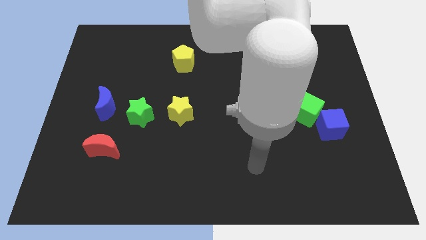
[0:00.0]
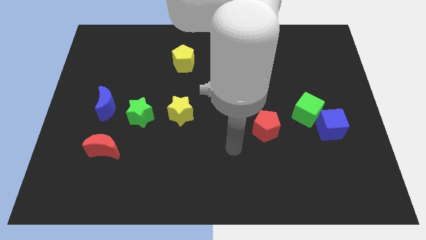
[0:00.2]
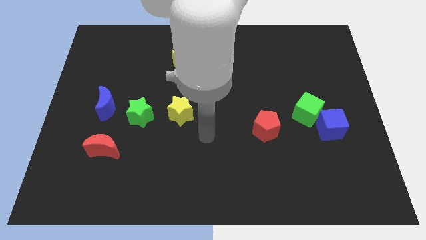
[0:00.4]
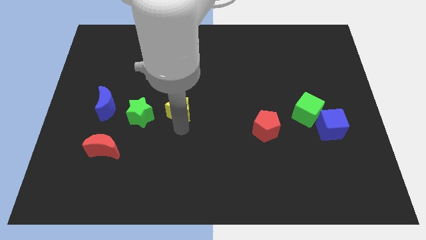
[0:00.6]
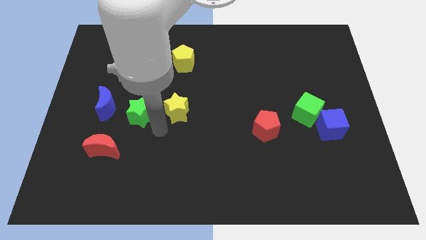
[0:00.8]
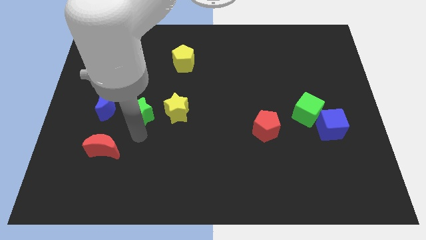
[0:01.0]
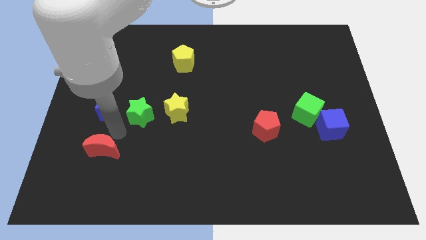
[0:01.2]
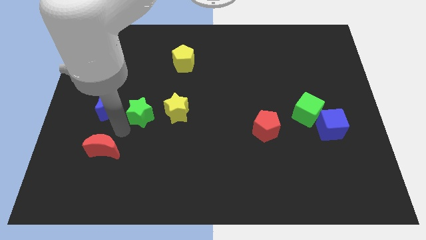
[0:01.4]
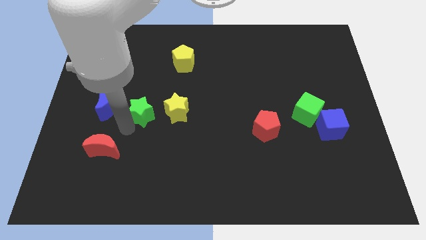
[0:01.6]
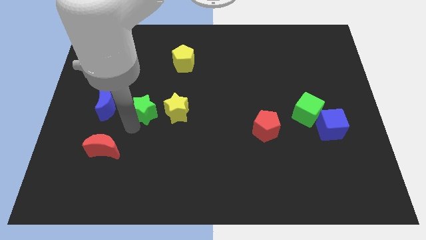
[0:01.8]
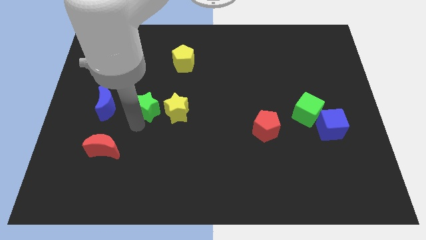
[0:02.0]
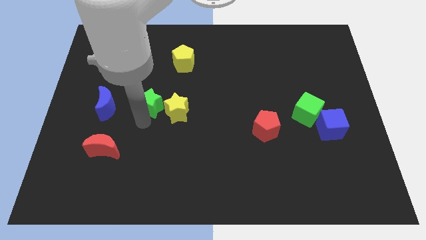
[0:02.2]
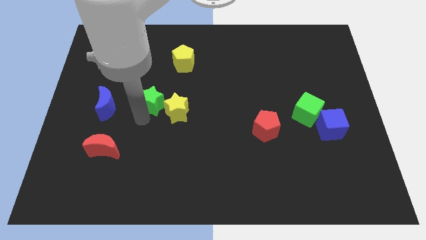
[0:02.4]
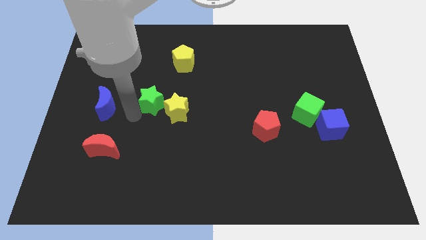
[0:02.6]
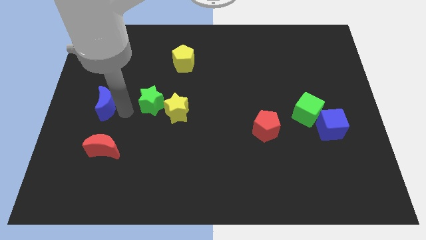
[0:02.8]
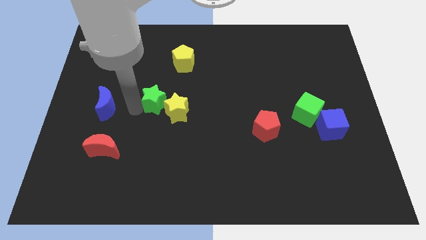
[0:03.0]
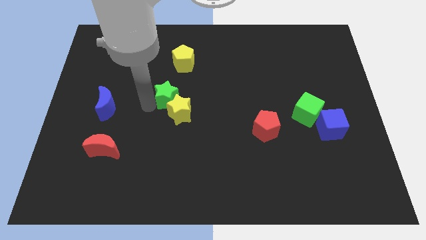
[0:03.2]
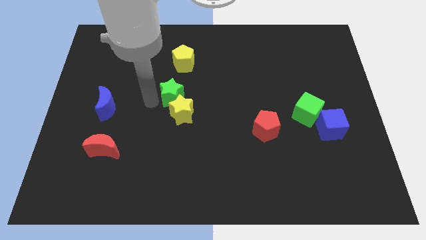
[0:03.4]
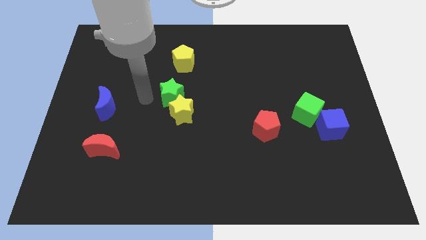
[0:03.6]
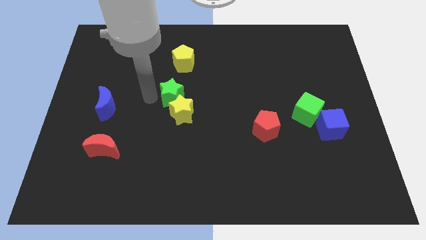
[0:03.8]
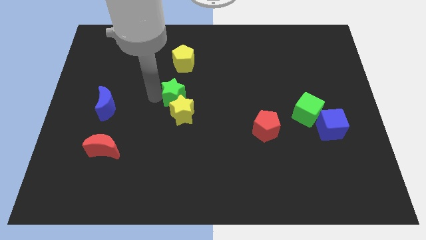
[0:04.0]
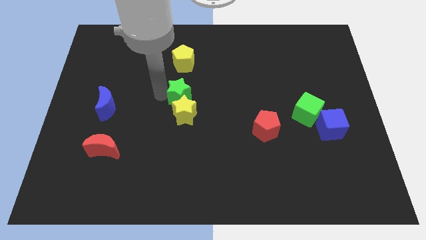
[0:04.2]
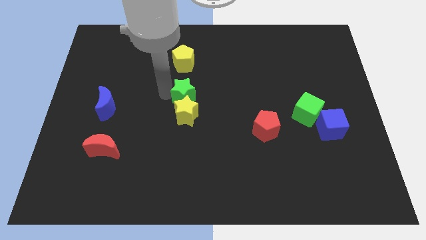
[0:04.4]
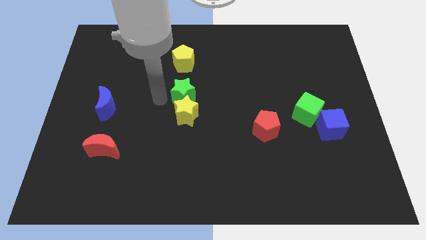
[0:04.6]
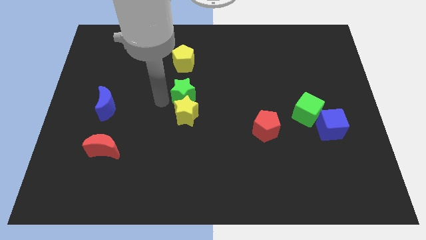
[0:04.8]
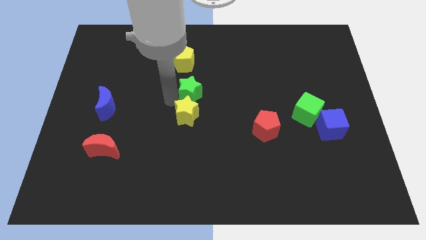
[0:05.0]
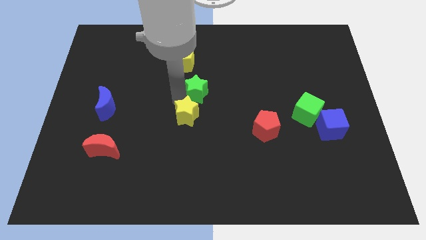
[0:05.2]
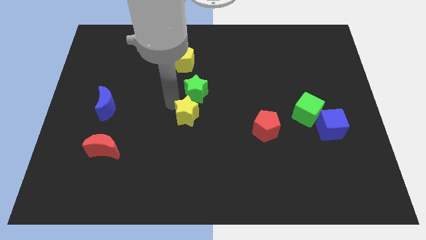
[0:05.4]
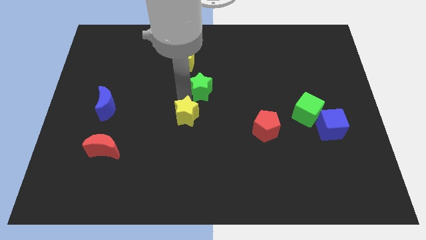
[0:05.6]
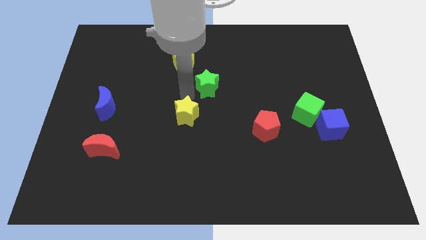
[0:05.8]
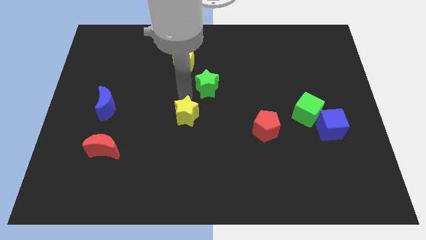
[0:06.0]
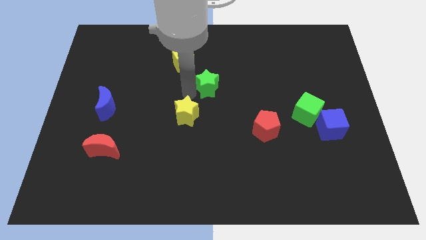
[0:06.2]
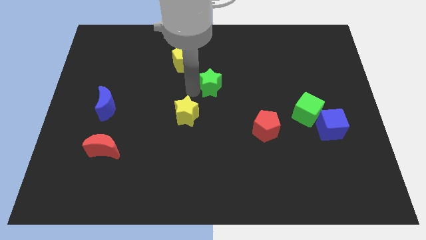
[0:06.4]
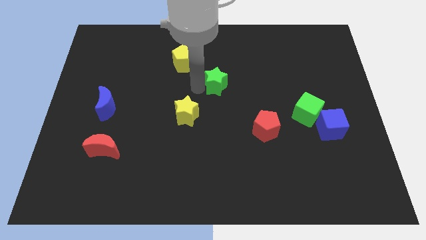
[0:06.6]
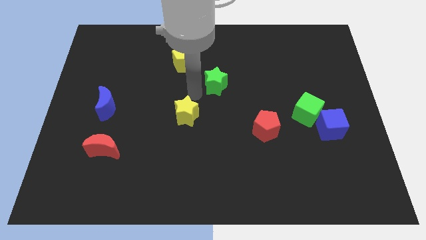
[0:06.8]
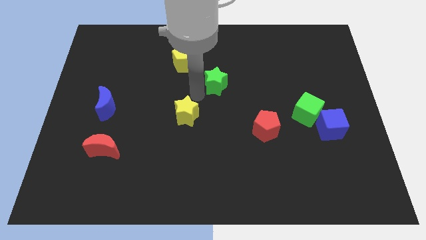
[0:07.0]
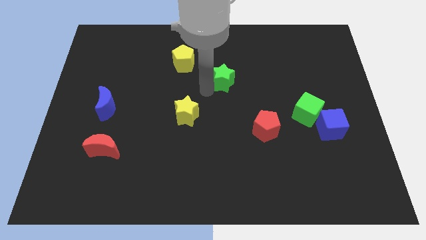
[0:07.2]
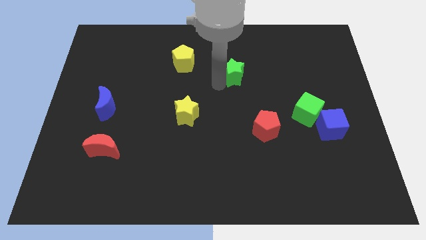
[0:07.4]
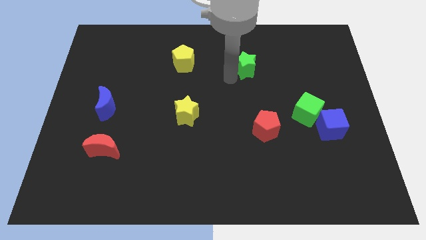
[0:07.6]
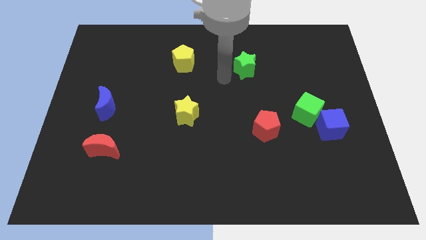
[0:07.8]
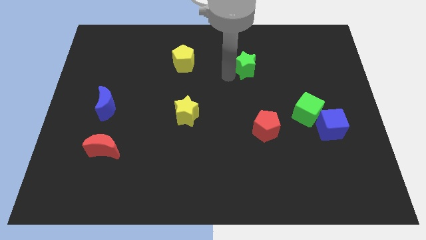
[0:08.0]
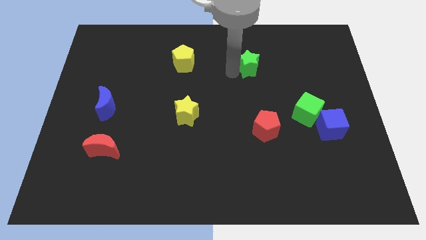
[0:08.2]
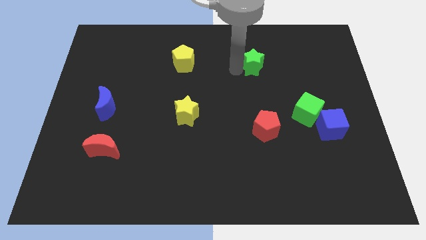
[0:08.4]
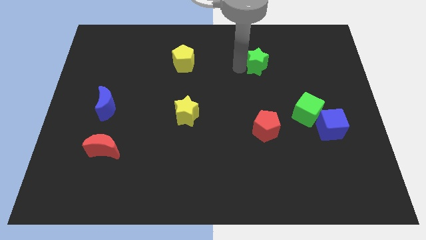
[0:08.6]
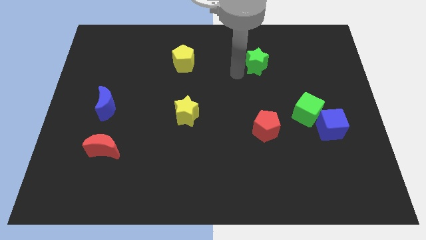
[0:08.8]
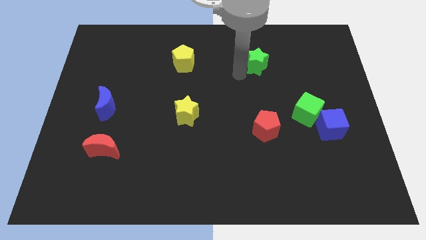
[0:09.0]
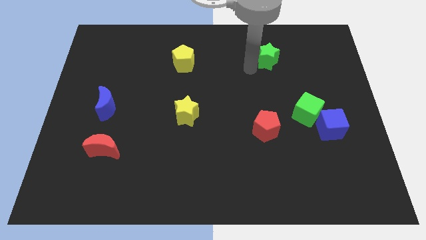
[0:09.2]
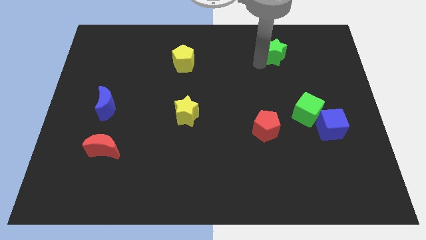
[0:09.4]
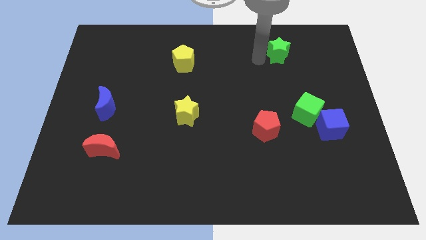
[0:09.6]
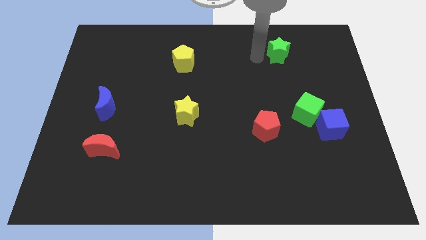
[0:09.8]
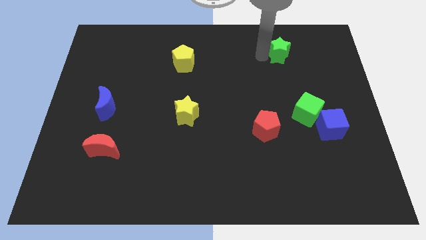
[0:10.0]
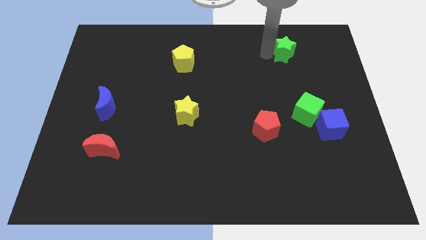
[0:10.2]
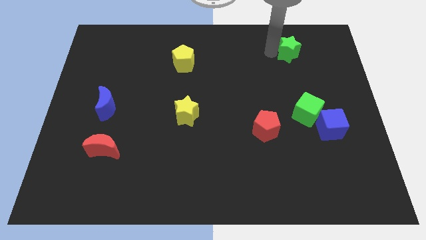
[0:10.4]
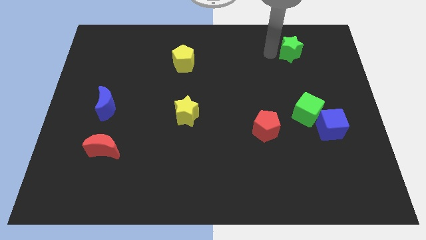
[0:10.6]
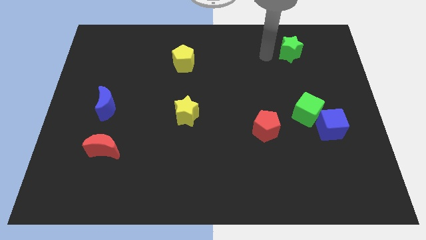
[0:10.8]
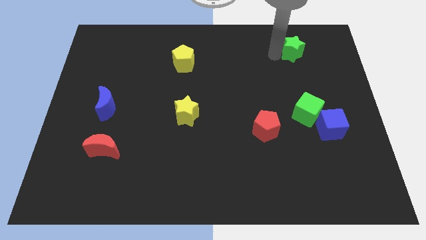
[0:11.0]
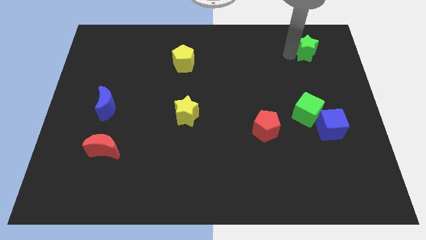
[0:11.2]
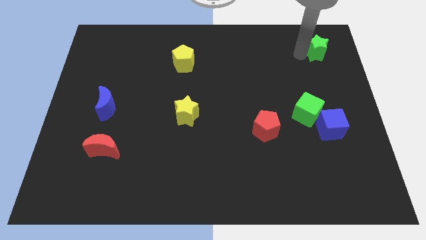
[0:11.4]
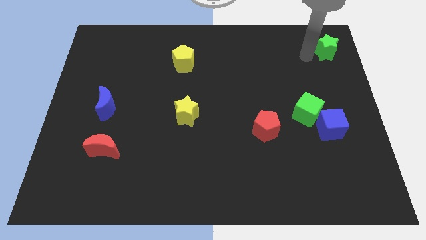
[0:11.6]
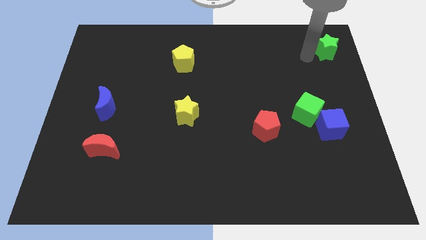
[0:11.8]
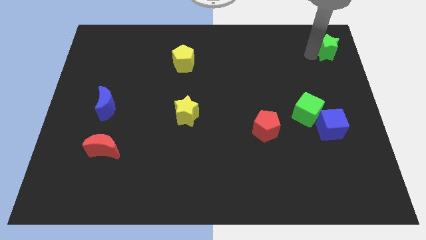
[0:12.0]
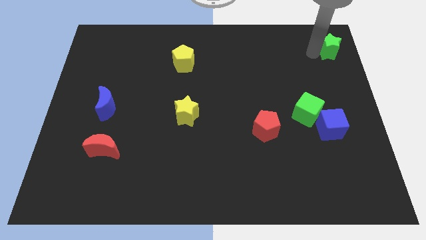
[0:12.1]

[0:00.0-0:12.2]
push the green star to the upper right corner

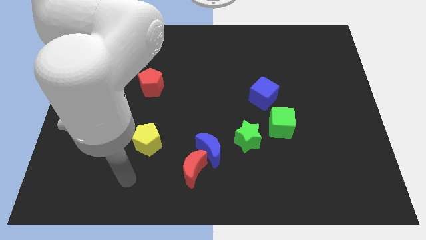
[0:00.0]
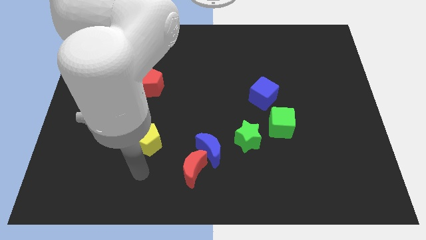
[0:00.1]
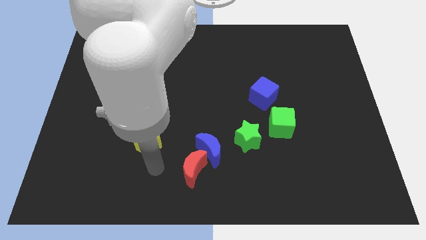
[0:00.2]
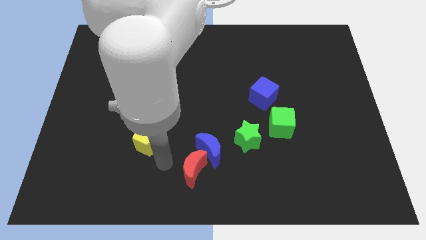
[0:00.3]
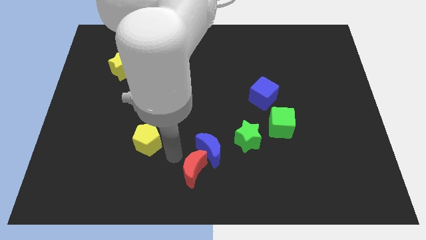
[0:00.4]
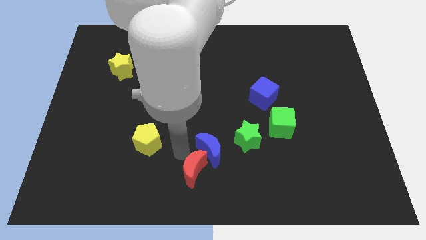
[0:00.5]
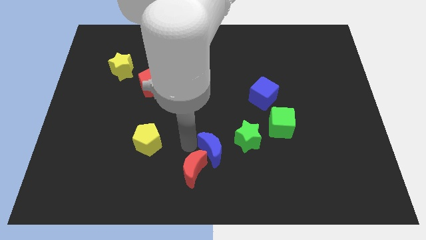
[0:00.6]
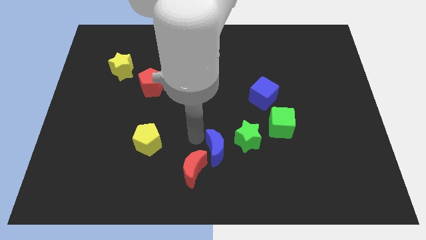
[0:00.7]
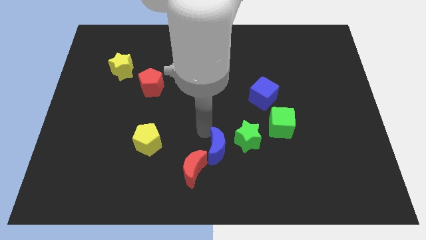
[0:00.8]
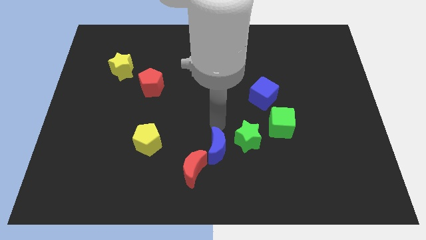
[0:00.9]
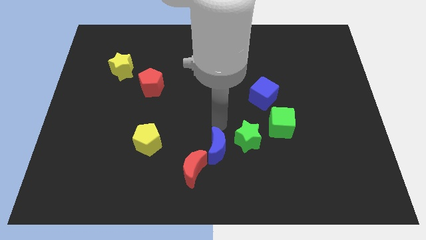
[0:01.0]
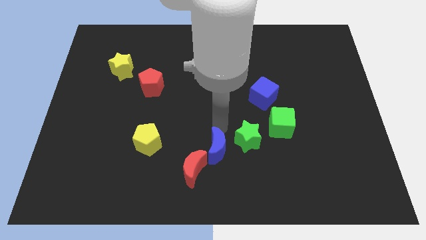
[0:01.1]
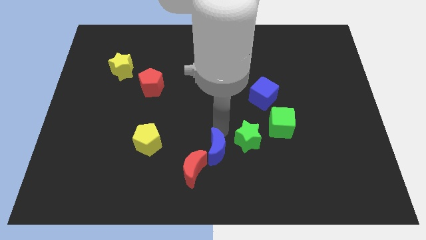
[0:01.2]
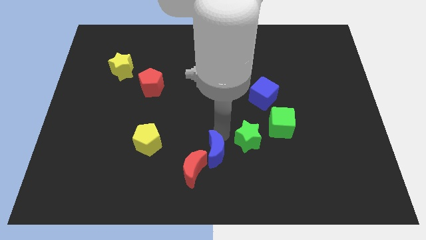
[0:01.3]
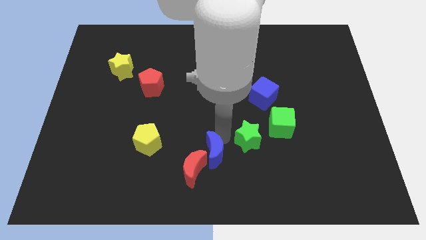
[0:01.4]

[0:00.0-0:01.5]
move the blue moon to the bottom

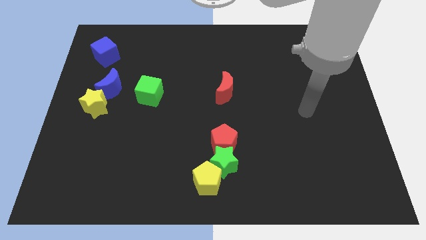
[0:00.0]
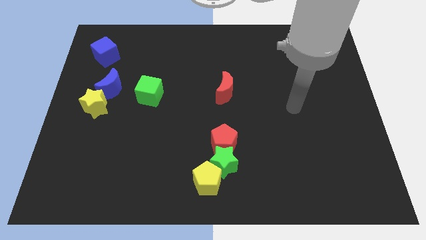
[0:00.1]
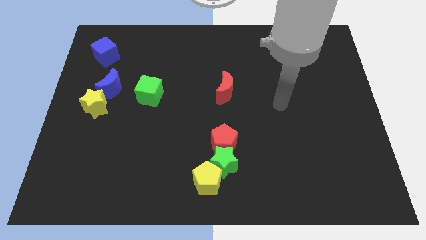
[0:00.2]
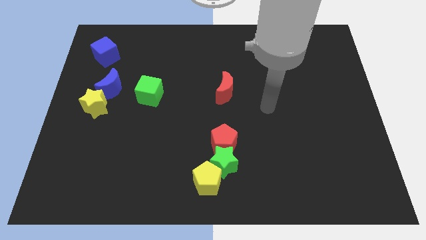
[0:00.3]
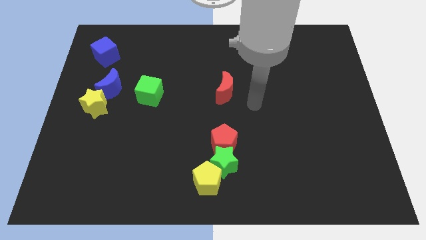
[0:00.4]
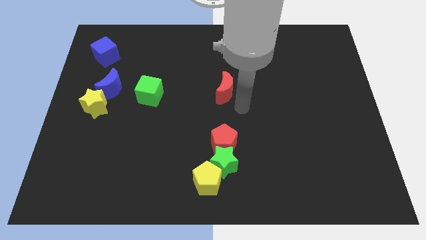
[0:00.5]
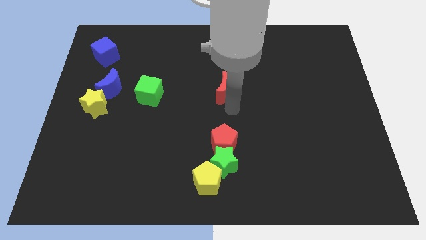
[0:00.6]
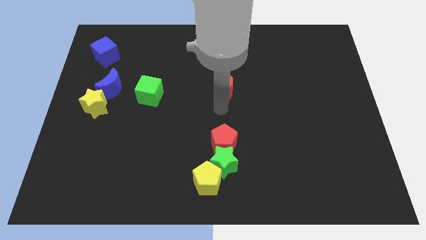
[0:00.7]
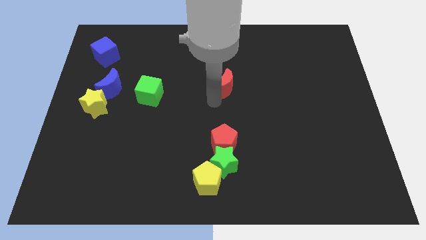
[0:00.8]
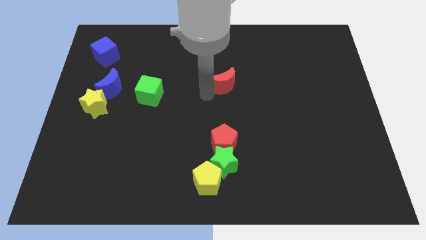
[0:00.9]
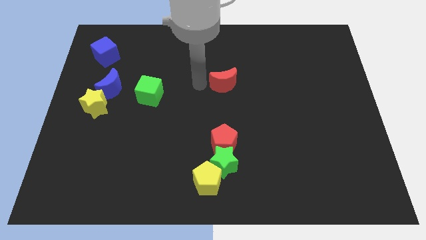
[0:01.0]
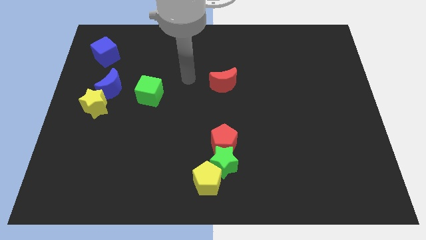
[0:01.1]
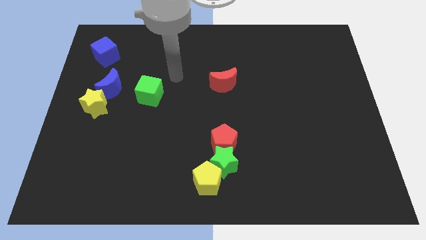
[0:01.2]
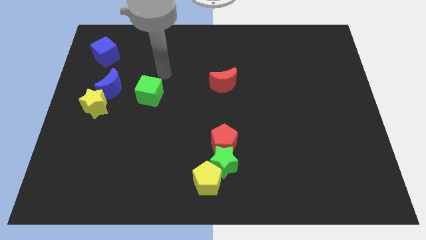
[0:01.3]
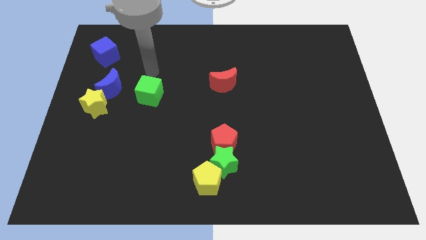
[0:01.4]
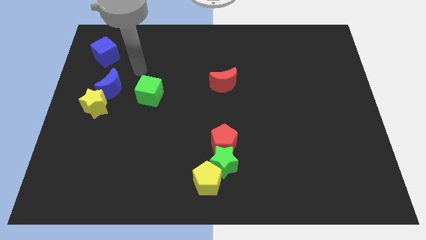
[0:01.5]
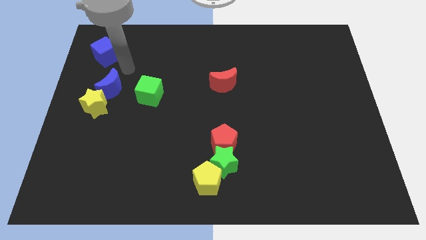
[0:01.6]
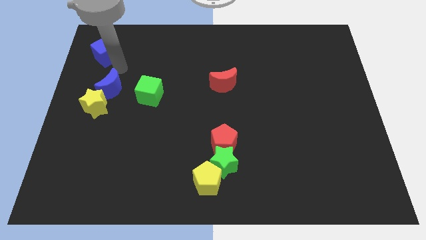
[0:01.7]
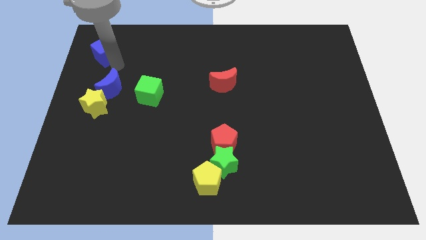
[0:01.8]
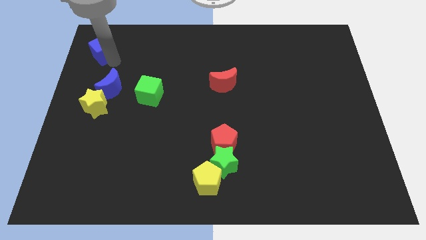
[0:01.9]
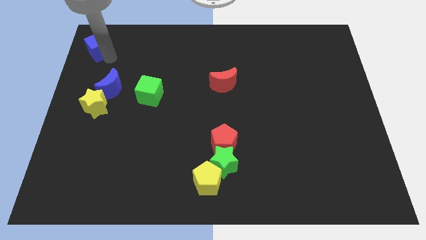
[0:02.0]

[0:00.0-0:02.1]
put the blue cube to the top left of the board
